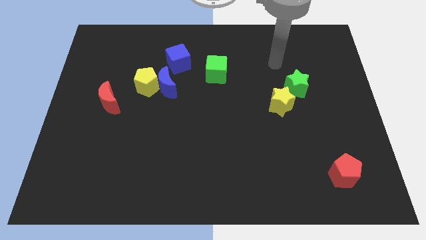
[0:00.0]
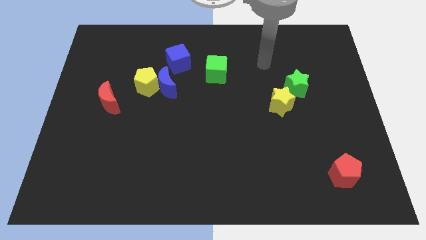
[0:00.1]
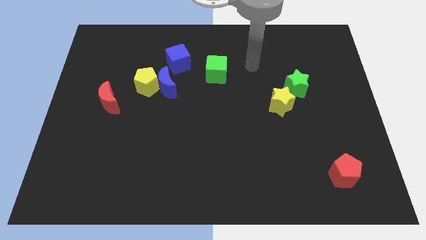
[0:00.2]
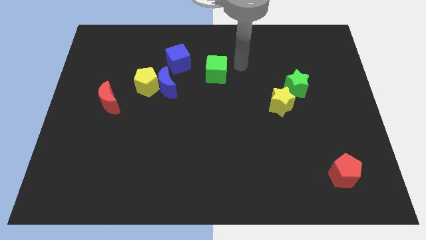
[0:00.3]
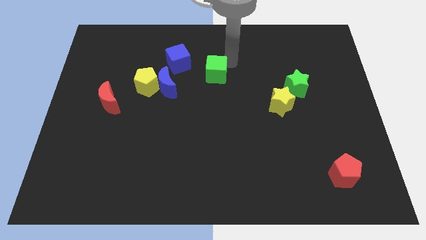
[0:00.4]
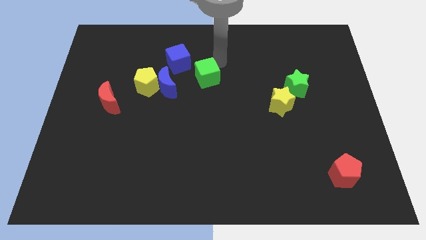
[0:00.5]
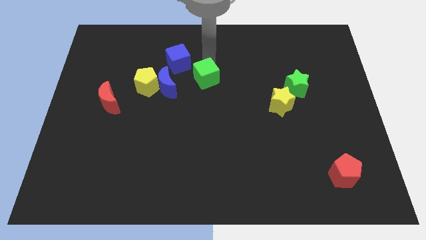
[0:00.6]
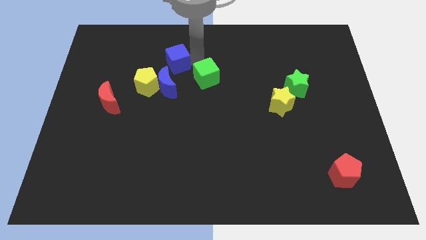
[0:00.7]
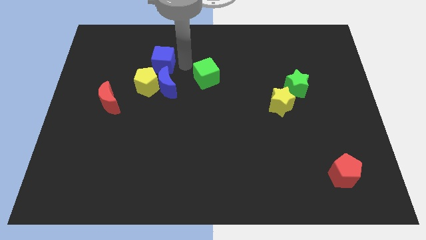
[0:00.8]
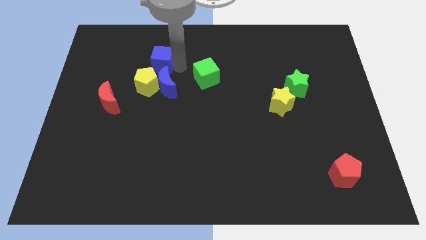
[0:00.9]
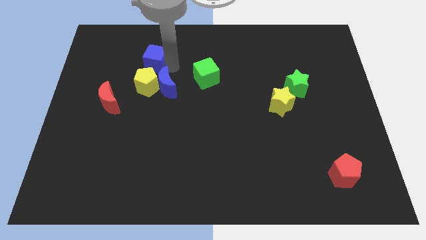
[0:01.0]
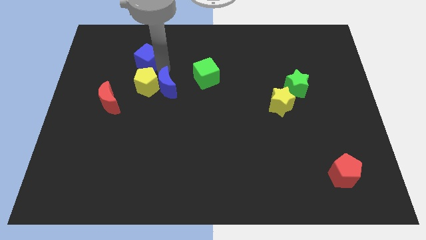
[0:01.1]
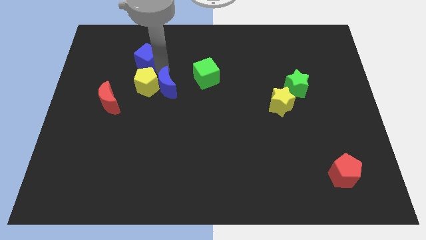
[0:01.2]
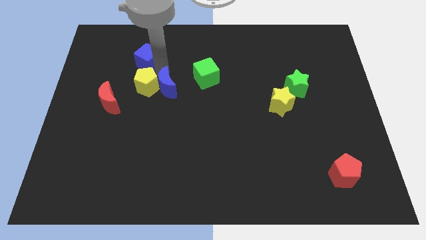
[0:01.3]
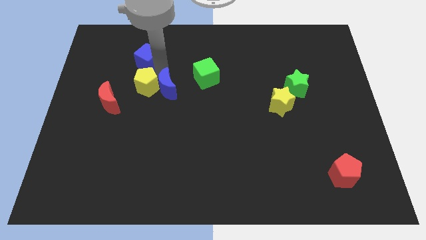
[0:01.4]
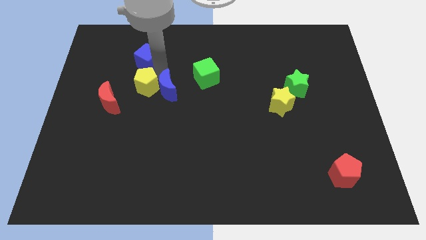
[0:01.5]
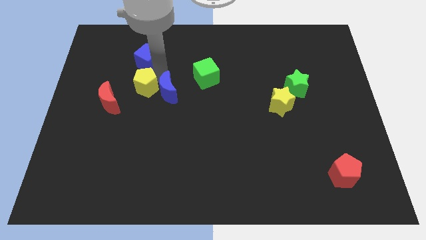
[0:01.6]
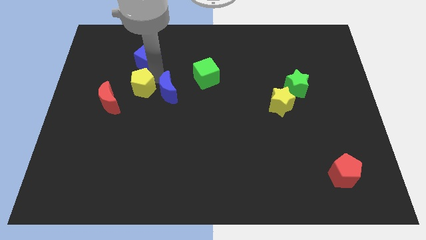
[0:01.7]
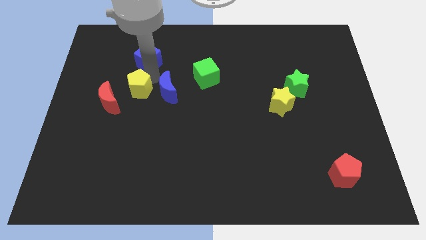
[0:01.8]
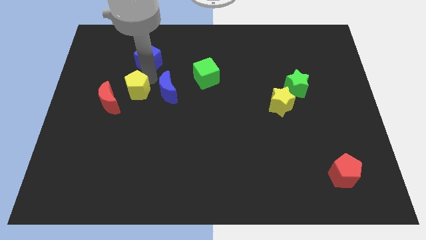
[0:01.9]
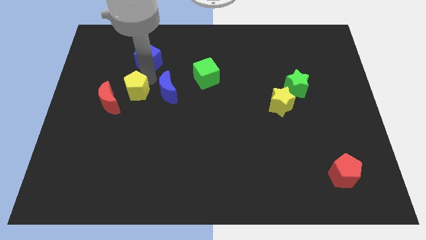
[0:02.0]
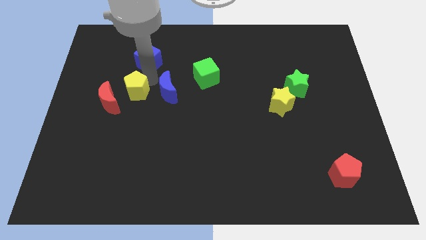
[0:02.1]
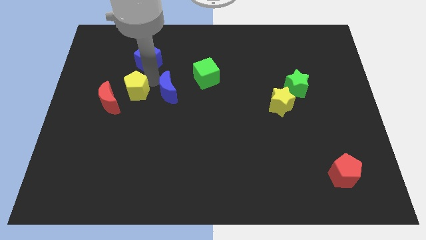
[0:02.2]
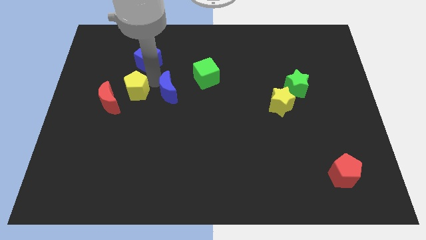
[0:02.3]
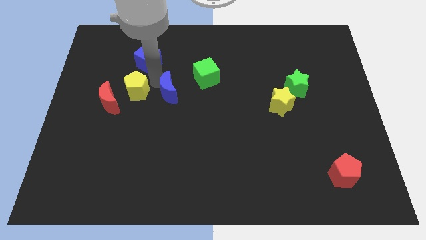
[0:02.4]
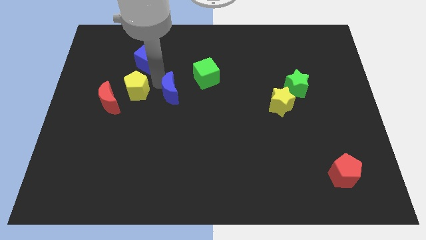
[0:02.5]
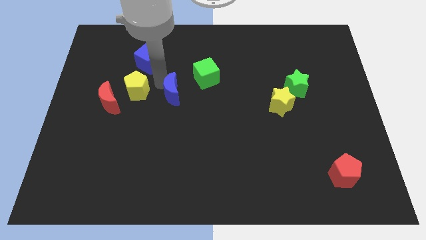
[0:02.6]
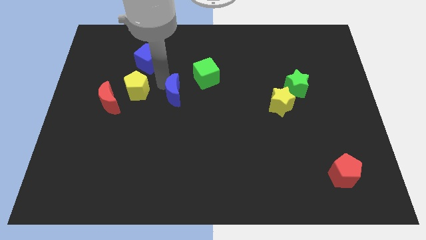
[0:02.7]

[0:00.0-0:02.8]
pull the blue moon apart from the yellow pentagon and blue cube

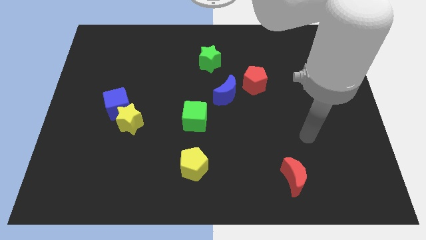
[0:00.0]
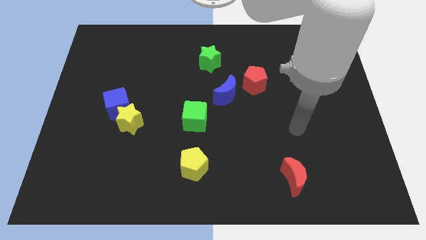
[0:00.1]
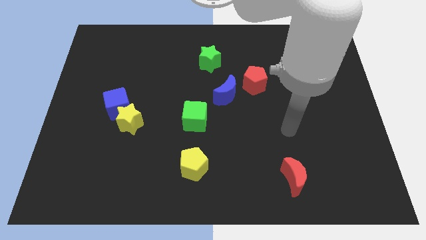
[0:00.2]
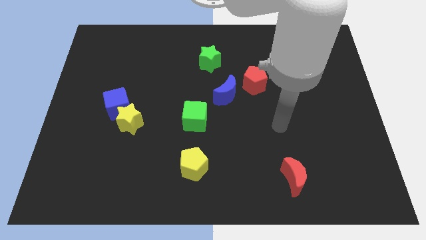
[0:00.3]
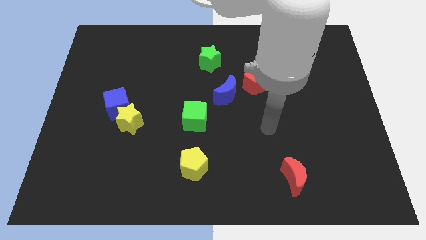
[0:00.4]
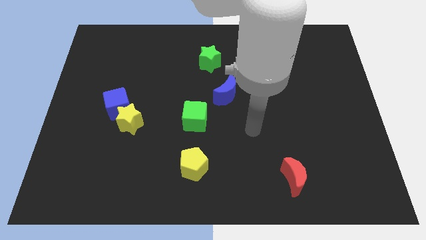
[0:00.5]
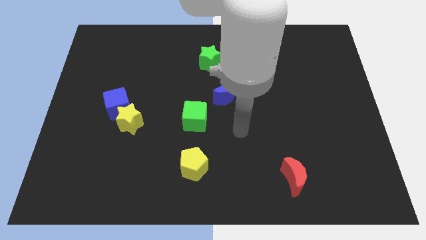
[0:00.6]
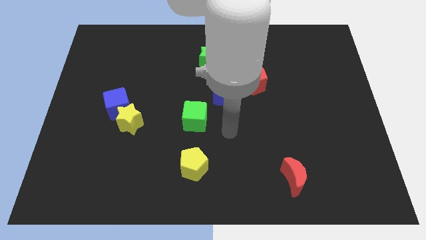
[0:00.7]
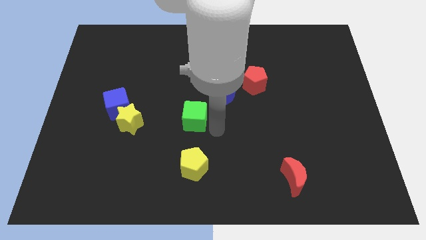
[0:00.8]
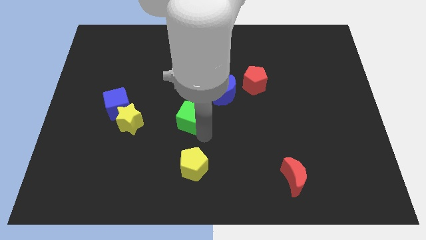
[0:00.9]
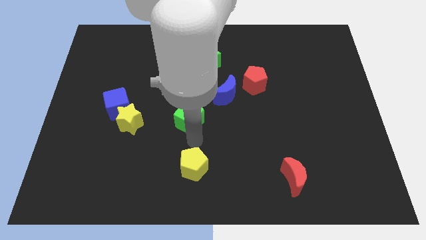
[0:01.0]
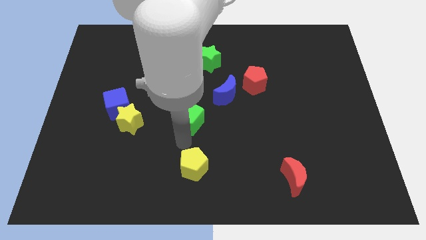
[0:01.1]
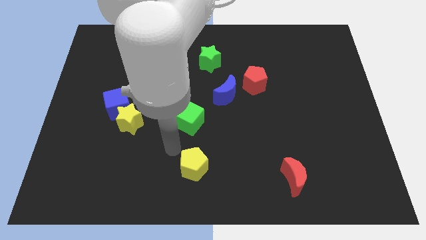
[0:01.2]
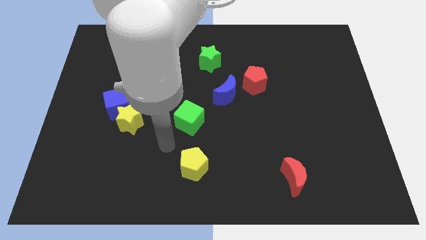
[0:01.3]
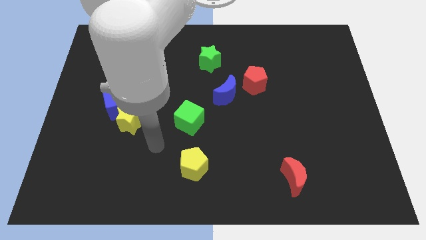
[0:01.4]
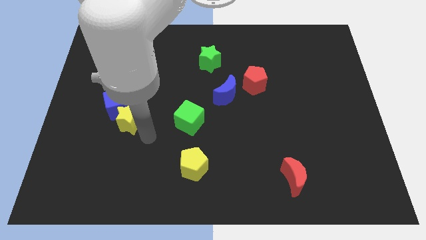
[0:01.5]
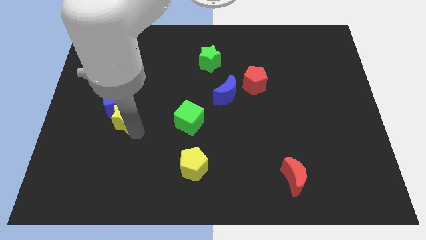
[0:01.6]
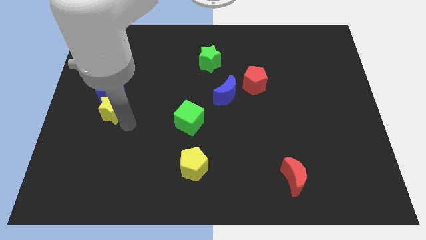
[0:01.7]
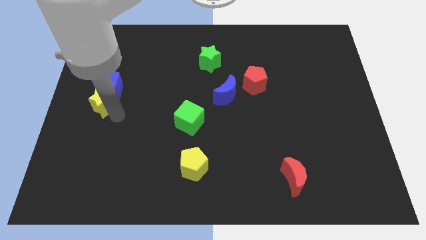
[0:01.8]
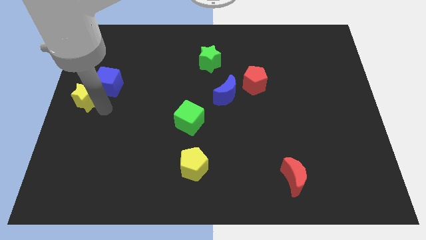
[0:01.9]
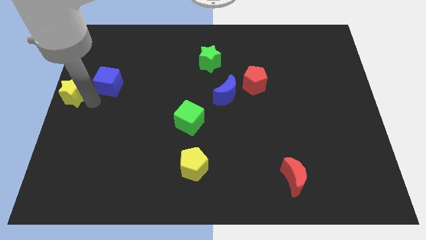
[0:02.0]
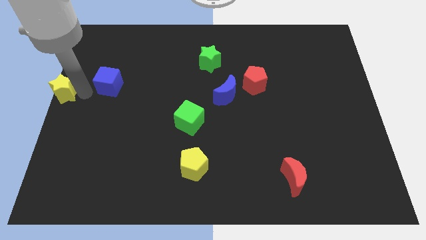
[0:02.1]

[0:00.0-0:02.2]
separate the blue cube from the yellow star

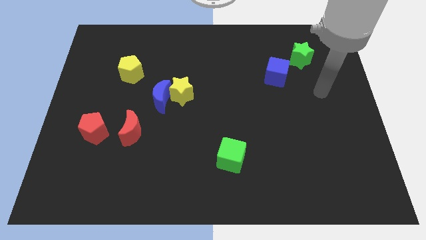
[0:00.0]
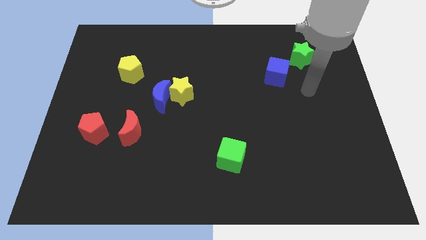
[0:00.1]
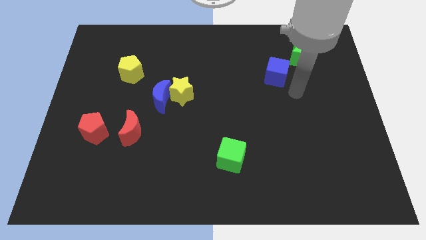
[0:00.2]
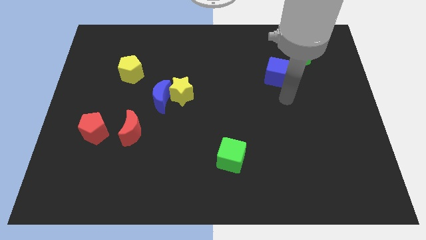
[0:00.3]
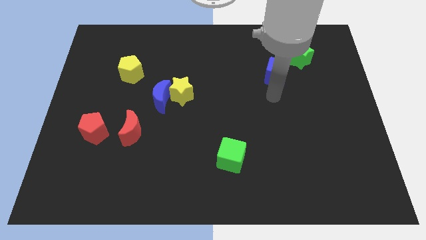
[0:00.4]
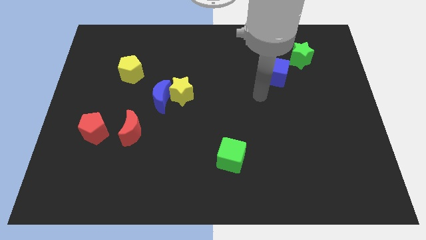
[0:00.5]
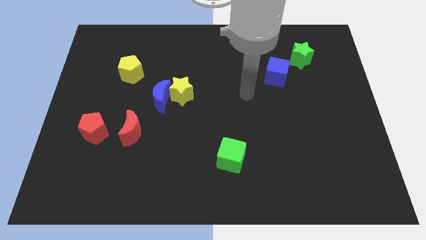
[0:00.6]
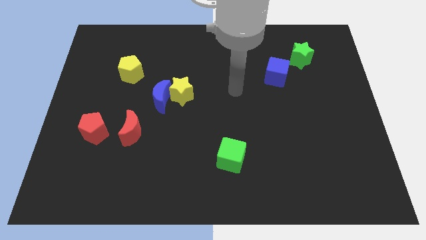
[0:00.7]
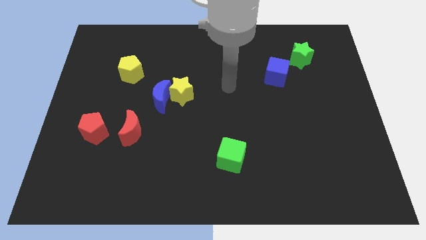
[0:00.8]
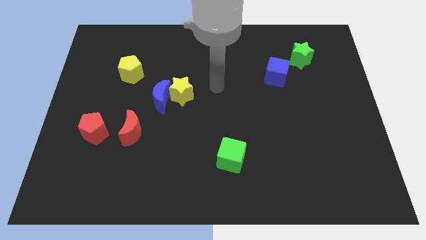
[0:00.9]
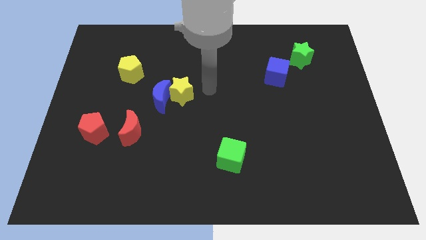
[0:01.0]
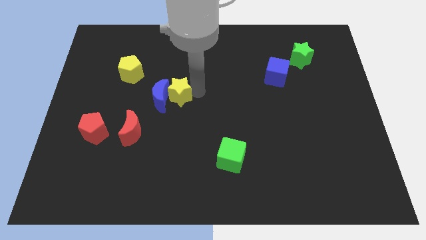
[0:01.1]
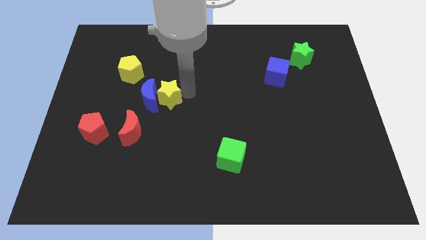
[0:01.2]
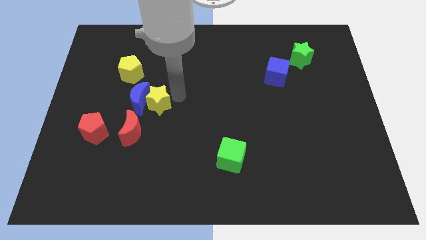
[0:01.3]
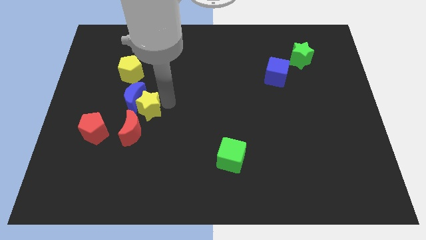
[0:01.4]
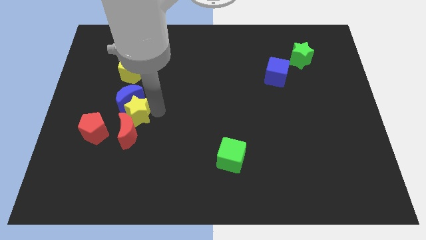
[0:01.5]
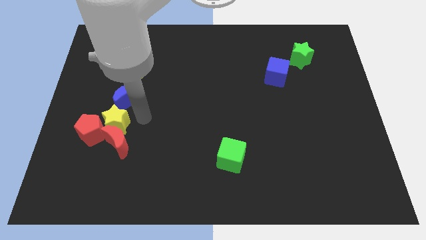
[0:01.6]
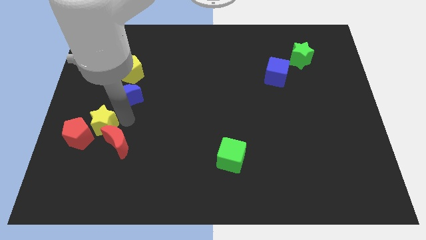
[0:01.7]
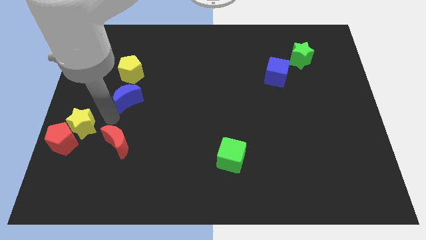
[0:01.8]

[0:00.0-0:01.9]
move the blue moon away from the yellow star

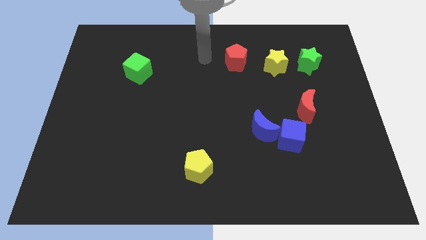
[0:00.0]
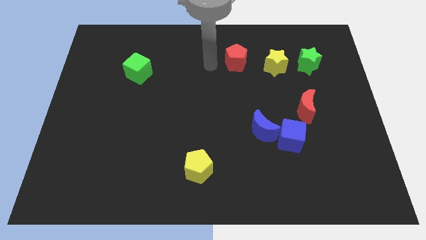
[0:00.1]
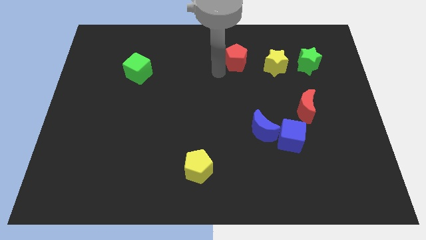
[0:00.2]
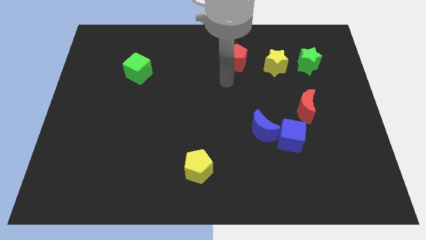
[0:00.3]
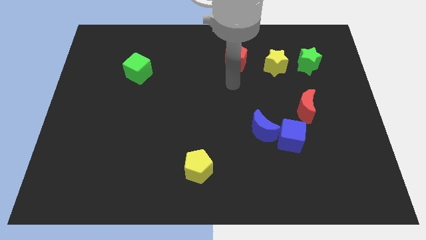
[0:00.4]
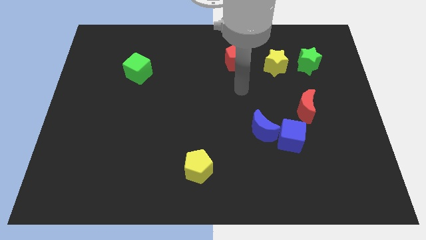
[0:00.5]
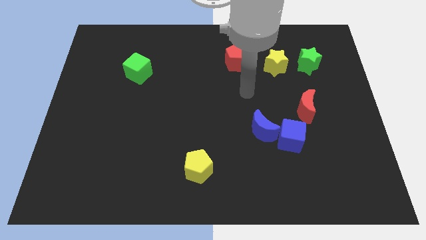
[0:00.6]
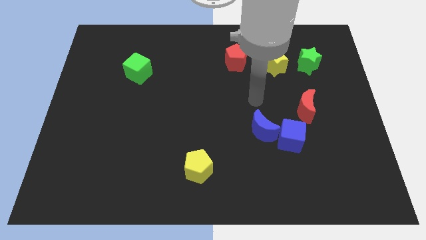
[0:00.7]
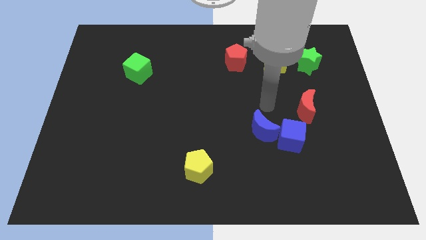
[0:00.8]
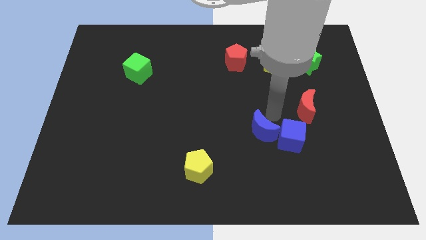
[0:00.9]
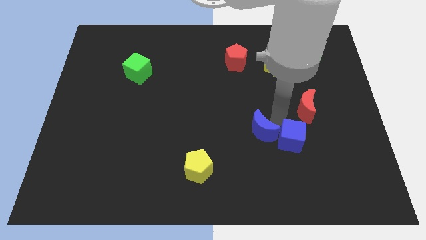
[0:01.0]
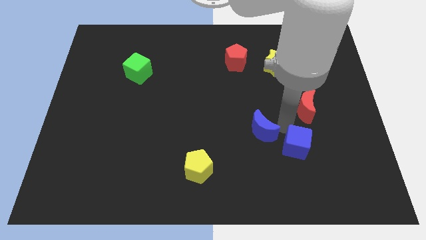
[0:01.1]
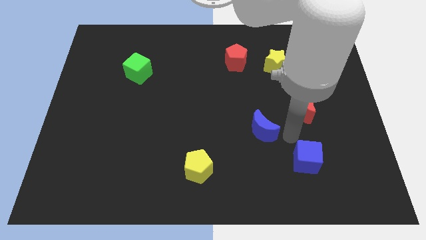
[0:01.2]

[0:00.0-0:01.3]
move the blue moon away from the blue cube

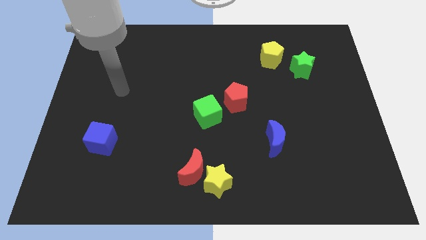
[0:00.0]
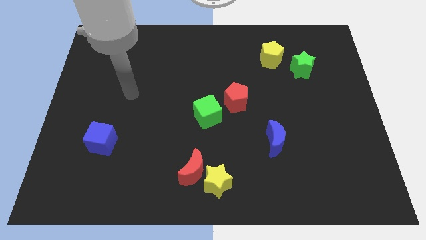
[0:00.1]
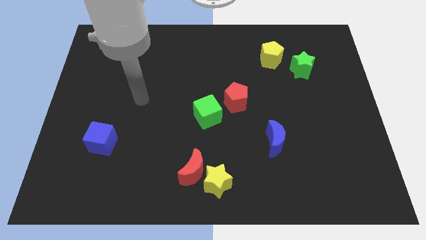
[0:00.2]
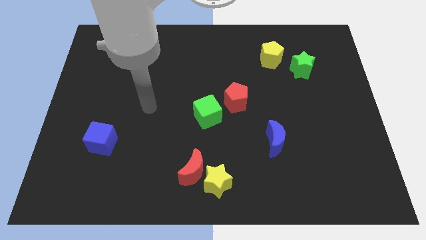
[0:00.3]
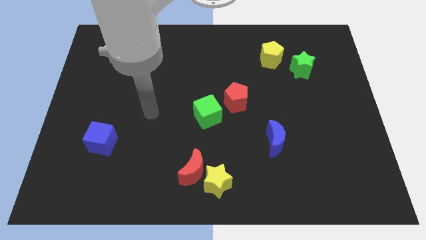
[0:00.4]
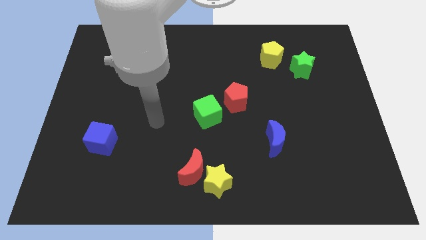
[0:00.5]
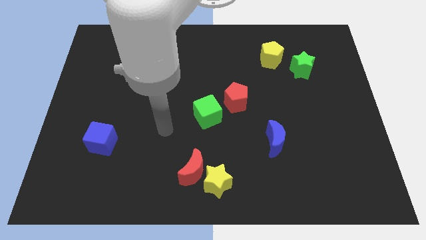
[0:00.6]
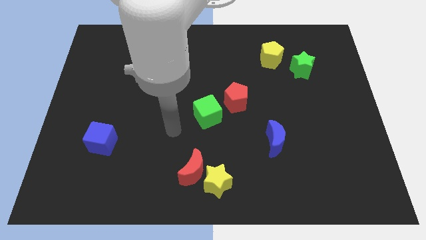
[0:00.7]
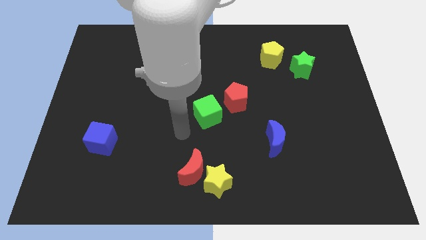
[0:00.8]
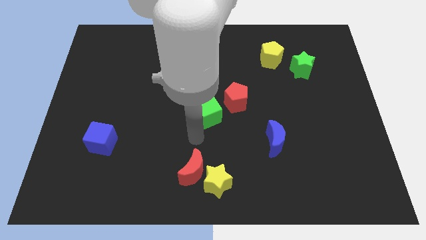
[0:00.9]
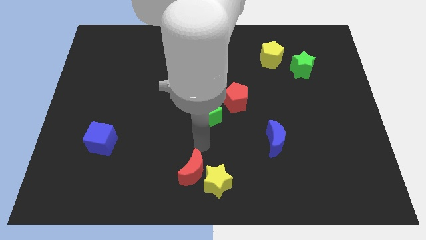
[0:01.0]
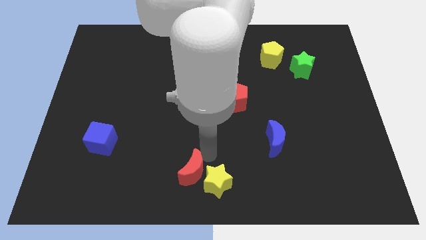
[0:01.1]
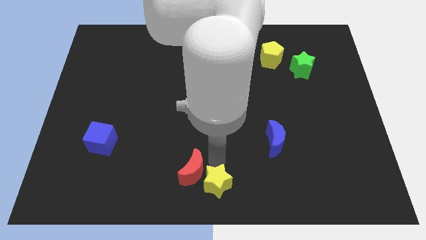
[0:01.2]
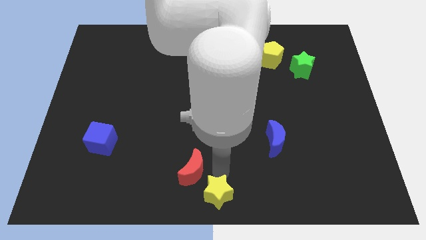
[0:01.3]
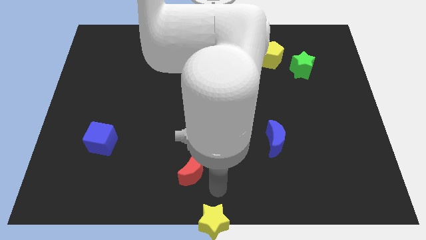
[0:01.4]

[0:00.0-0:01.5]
pull the red moon apart from the yellow star
